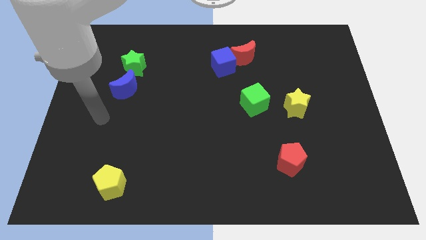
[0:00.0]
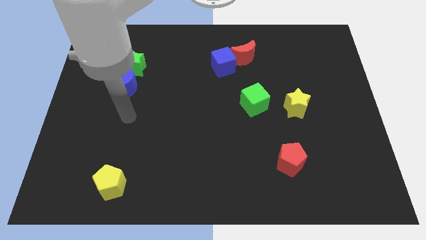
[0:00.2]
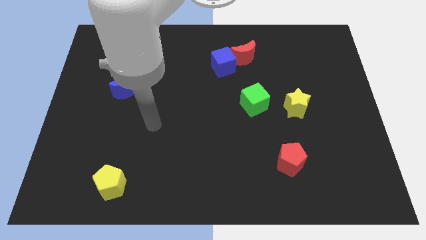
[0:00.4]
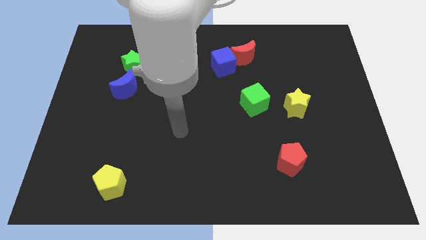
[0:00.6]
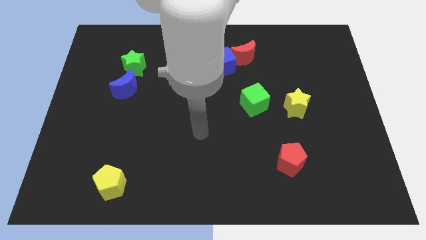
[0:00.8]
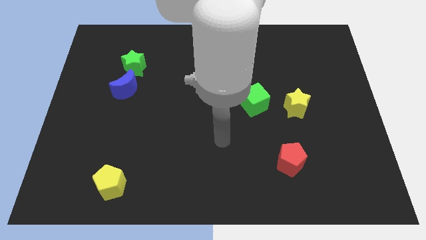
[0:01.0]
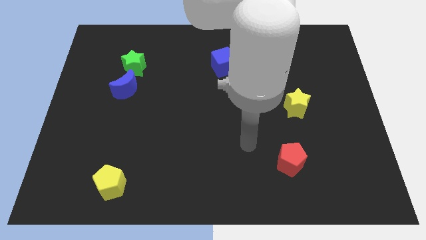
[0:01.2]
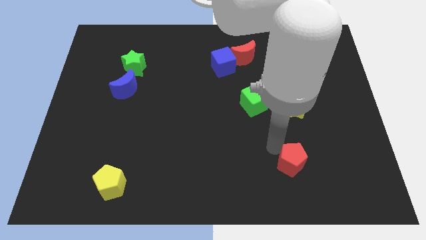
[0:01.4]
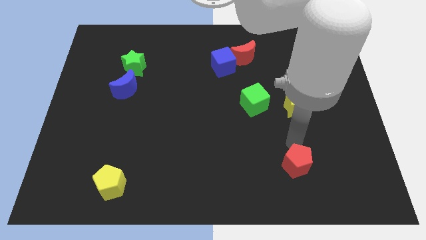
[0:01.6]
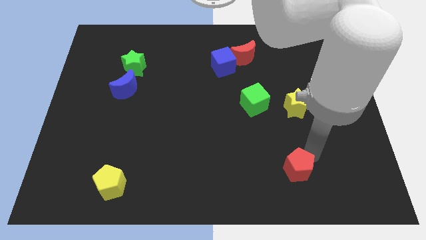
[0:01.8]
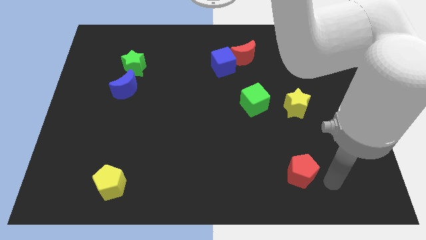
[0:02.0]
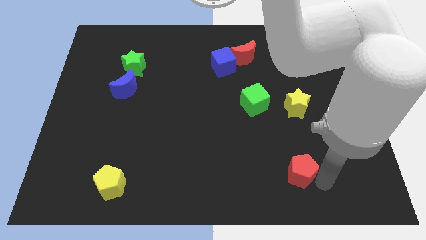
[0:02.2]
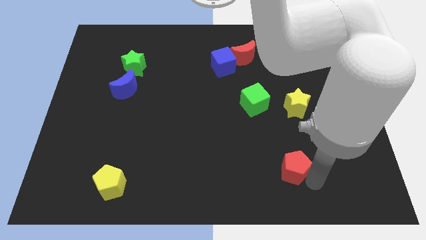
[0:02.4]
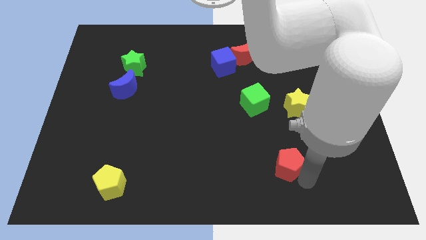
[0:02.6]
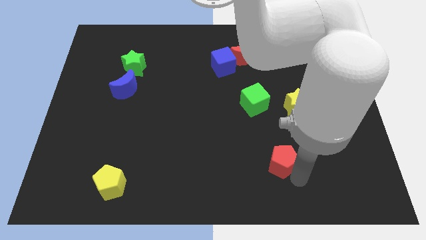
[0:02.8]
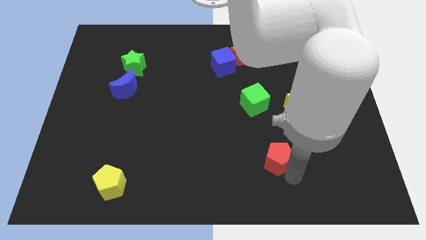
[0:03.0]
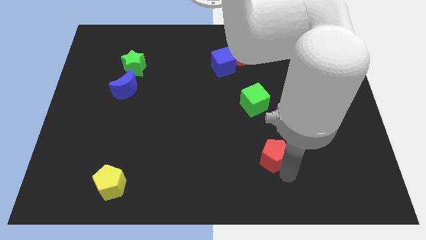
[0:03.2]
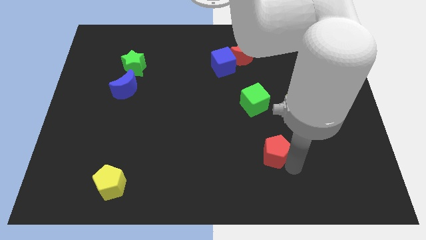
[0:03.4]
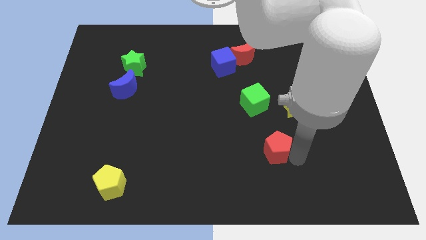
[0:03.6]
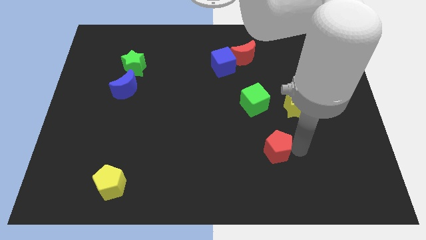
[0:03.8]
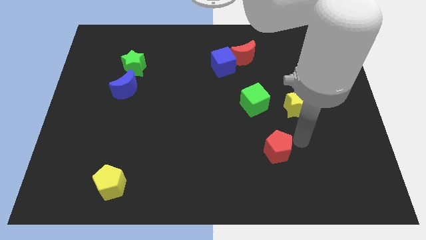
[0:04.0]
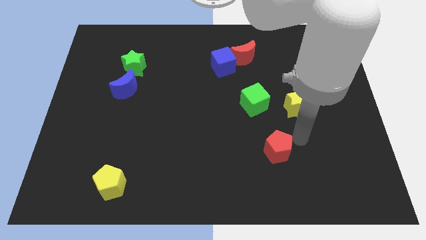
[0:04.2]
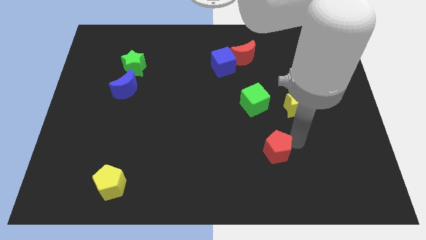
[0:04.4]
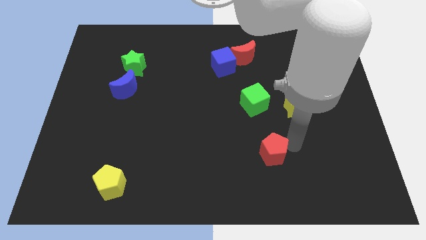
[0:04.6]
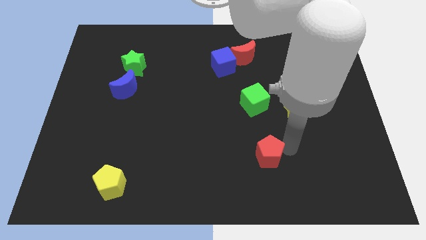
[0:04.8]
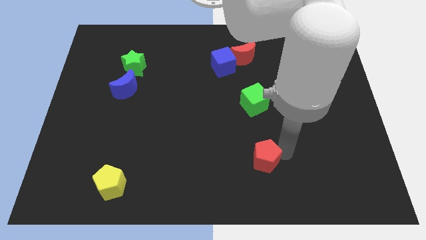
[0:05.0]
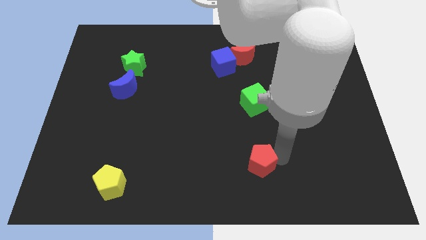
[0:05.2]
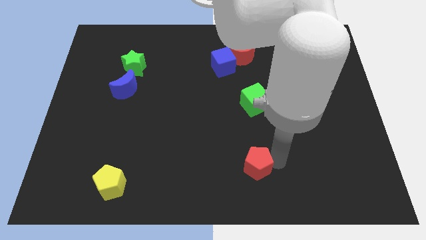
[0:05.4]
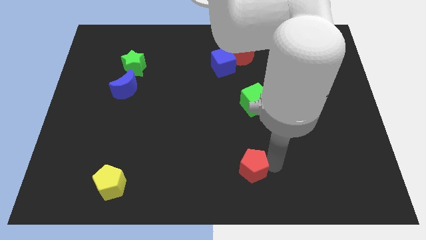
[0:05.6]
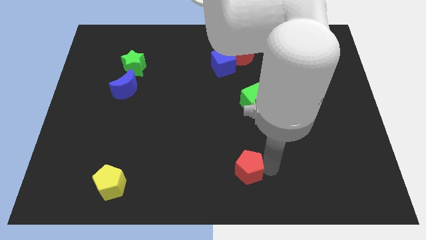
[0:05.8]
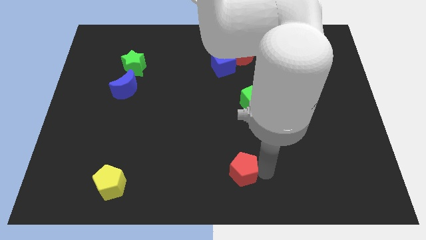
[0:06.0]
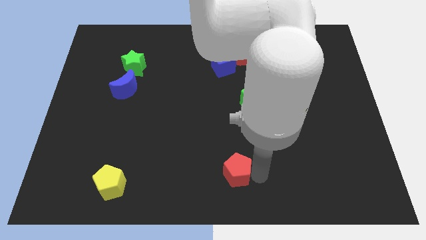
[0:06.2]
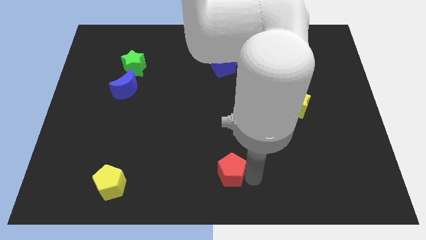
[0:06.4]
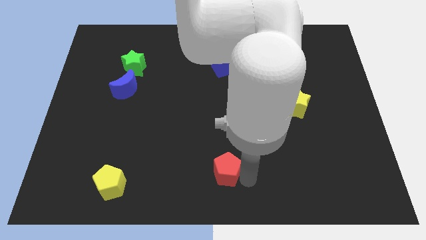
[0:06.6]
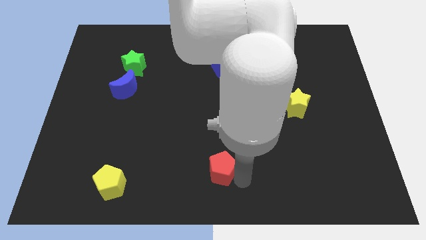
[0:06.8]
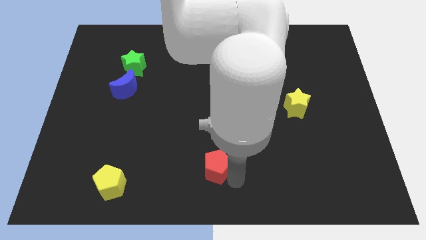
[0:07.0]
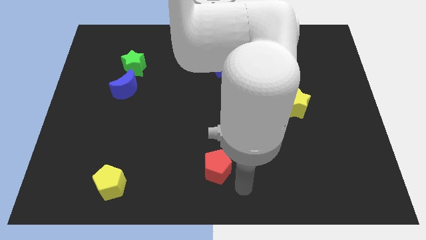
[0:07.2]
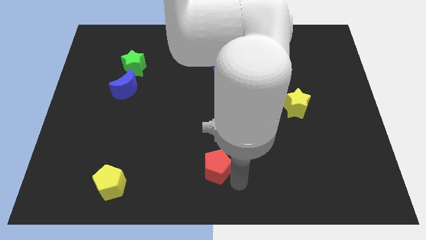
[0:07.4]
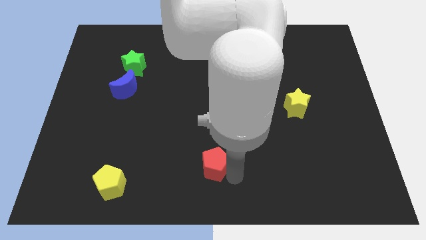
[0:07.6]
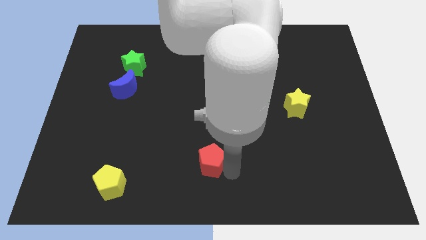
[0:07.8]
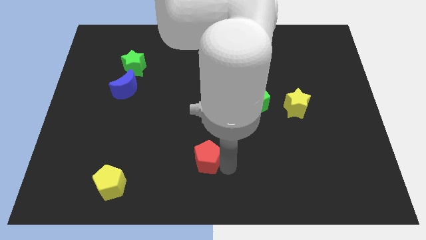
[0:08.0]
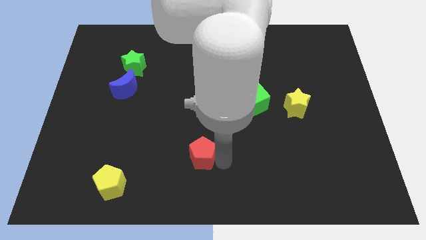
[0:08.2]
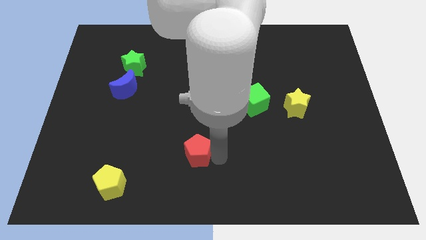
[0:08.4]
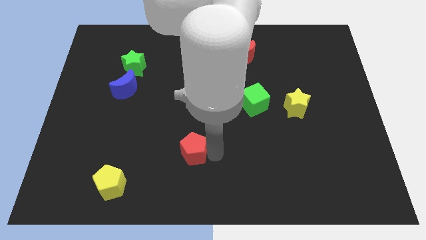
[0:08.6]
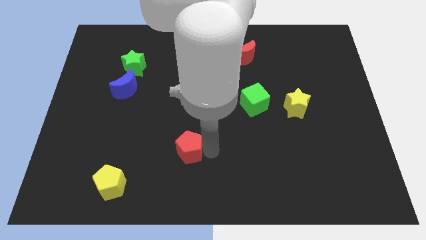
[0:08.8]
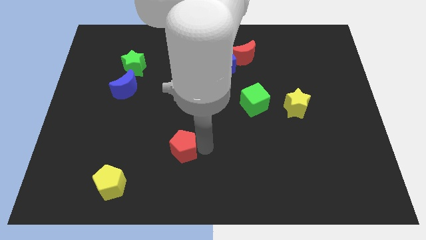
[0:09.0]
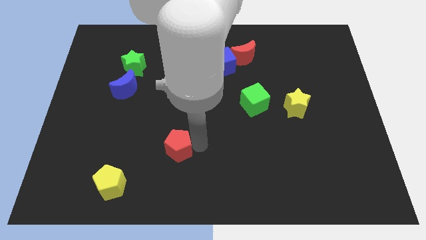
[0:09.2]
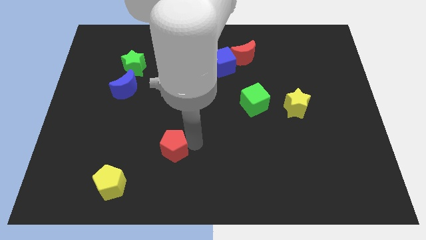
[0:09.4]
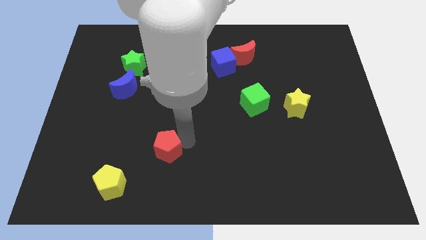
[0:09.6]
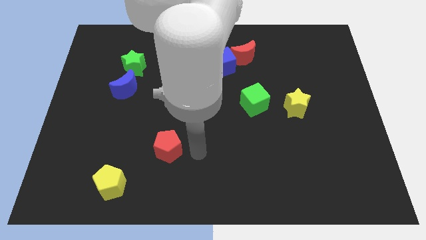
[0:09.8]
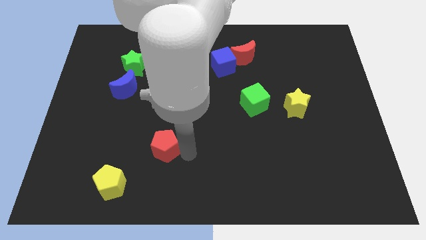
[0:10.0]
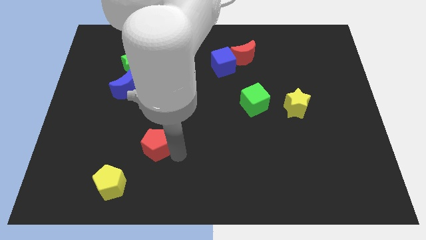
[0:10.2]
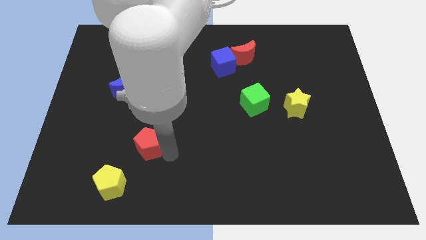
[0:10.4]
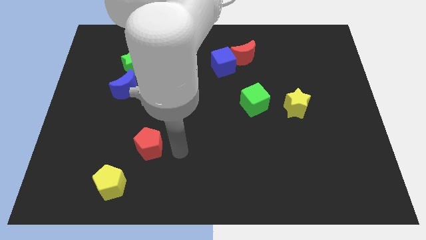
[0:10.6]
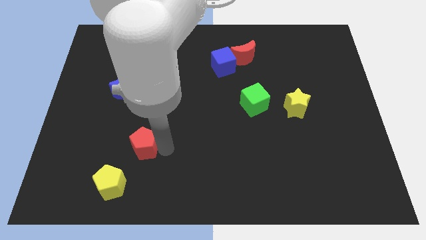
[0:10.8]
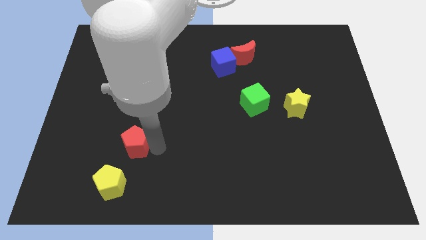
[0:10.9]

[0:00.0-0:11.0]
slide the red pentagon to the top of the yellow pentagon

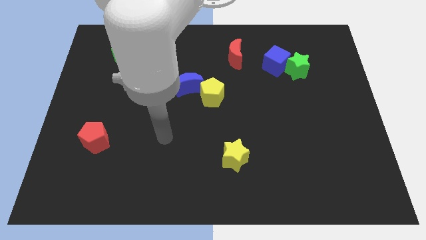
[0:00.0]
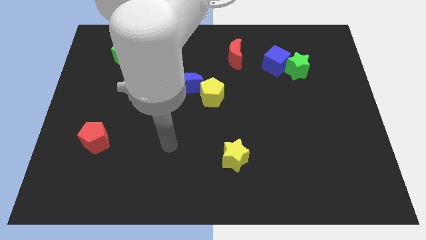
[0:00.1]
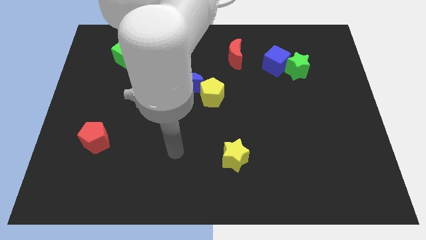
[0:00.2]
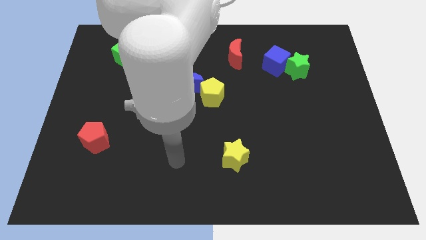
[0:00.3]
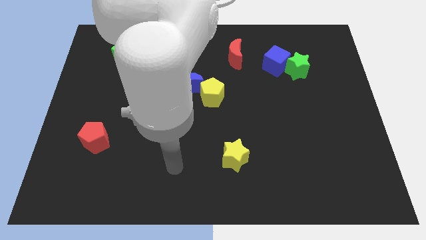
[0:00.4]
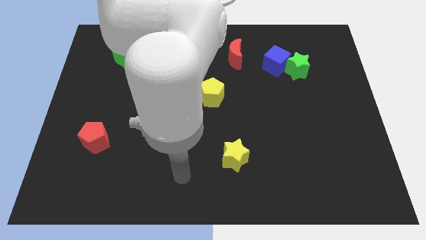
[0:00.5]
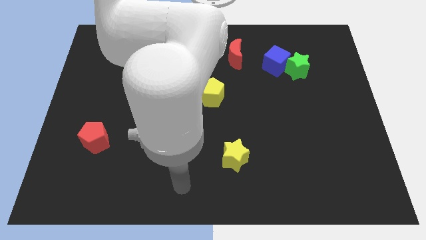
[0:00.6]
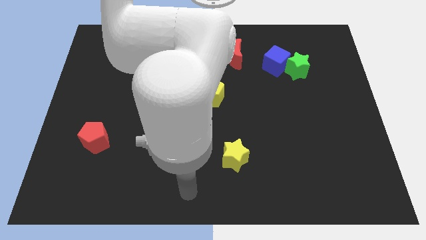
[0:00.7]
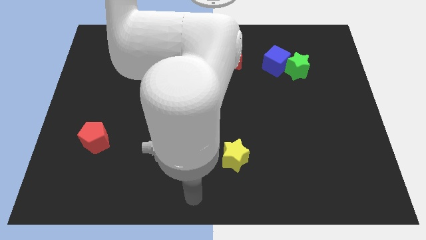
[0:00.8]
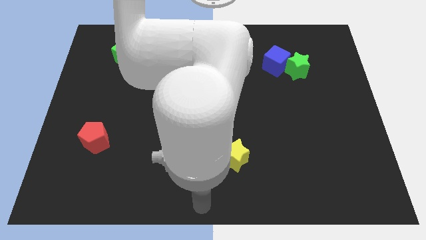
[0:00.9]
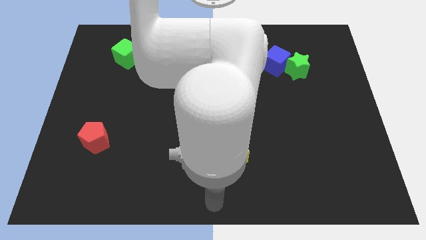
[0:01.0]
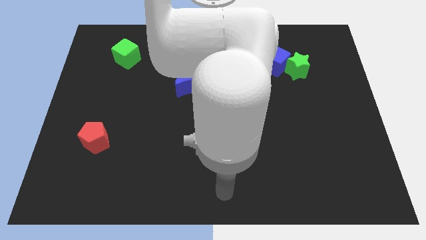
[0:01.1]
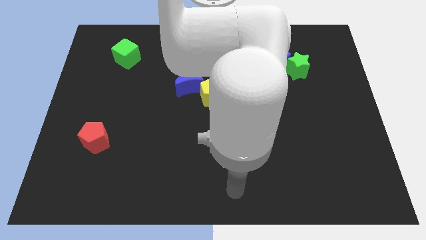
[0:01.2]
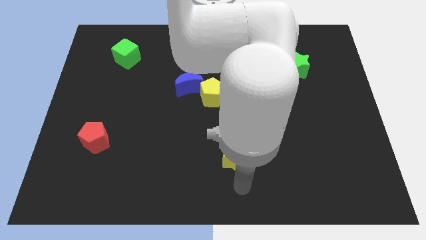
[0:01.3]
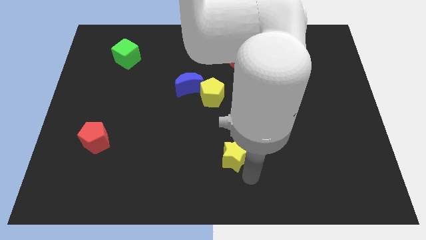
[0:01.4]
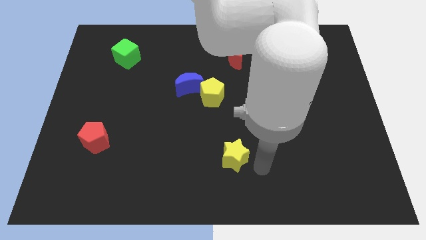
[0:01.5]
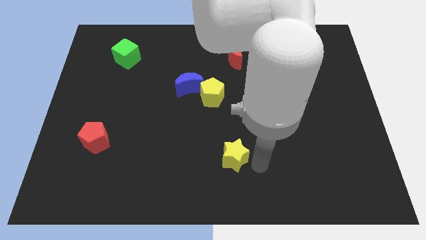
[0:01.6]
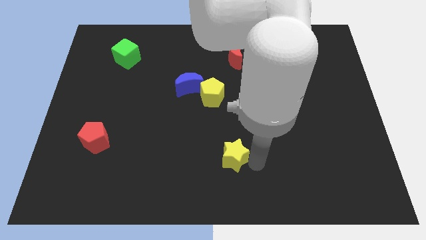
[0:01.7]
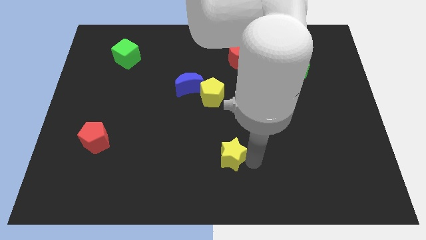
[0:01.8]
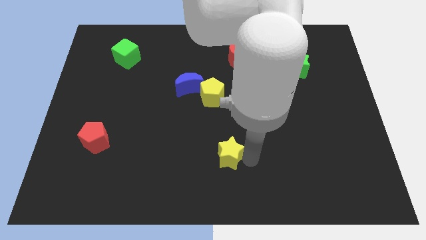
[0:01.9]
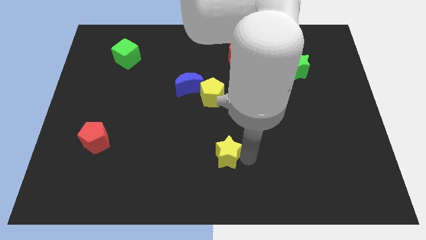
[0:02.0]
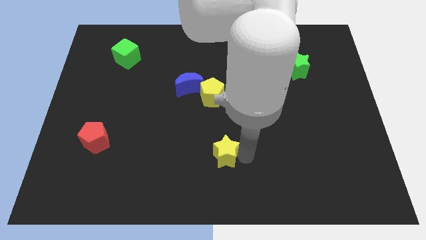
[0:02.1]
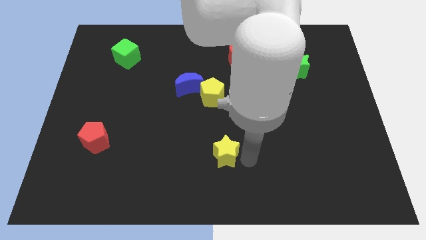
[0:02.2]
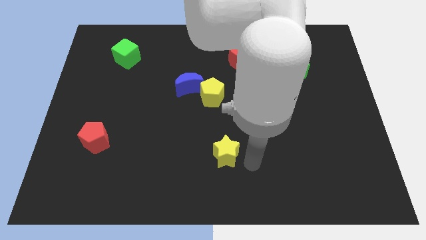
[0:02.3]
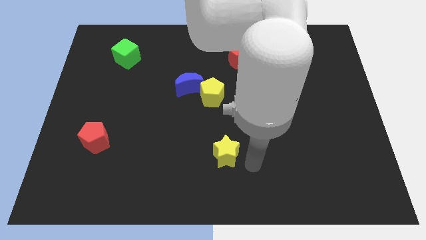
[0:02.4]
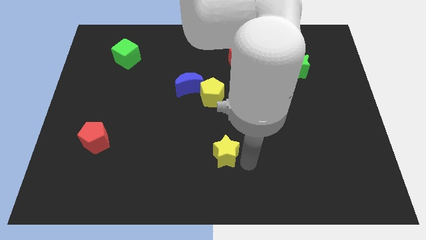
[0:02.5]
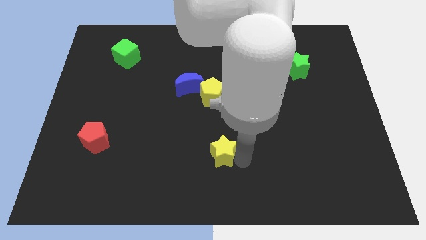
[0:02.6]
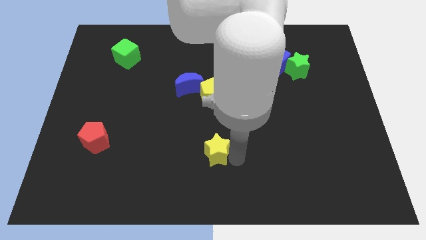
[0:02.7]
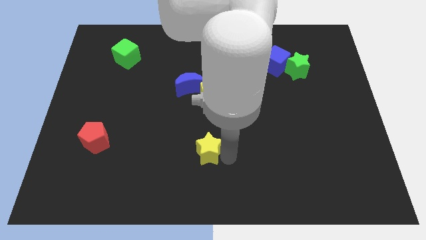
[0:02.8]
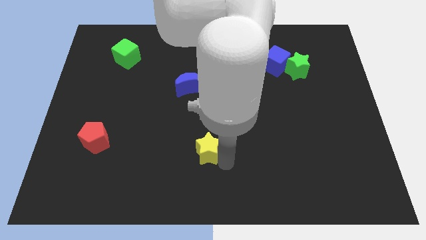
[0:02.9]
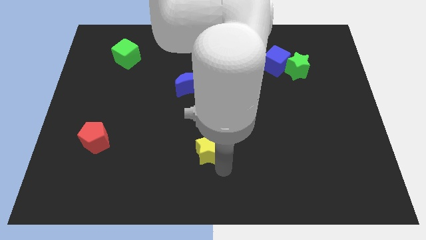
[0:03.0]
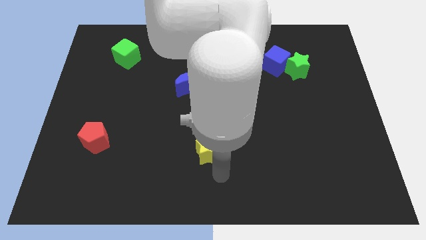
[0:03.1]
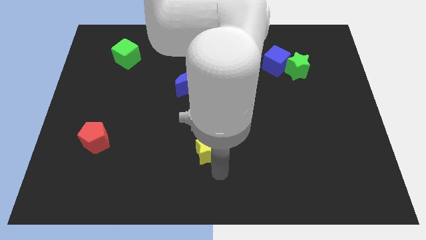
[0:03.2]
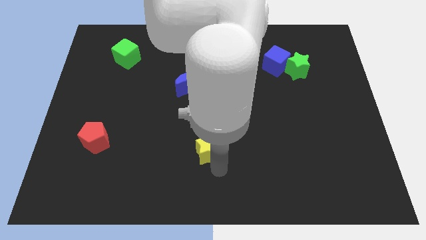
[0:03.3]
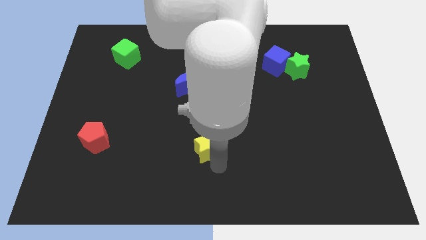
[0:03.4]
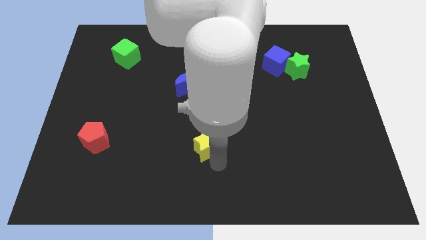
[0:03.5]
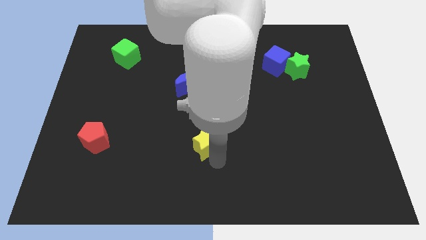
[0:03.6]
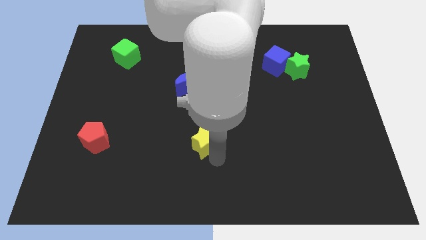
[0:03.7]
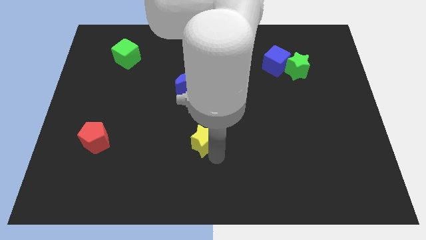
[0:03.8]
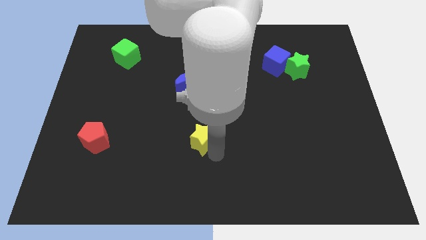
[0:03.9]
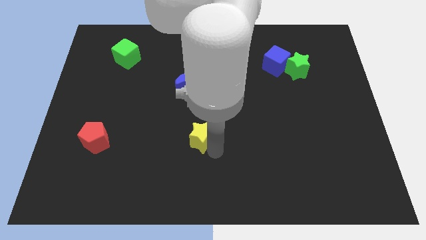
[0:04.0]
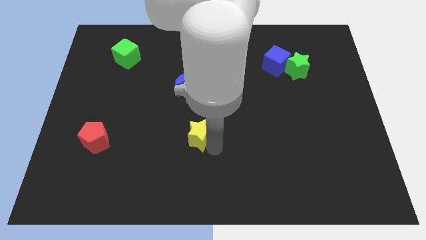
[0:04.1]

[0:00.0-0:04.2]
put the yellow star to the bottom side of the blue moon
